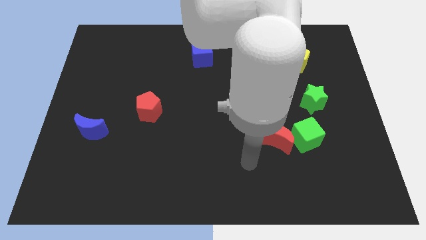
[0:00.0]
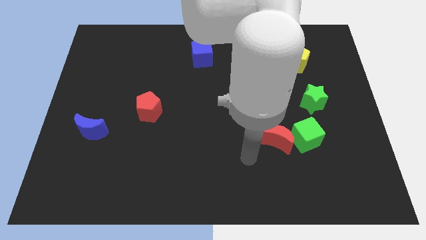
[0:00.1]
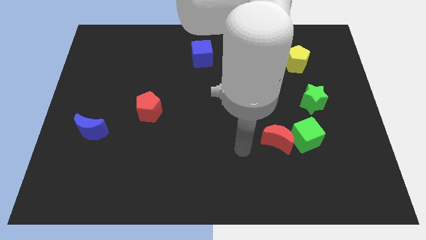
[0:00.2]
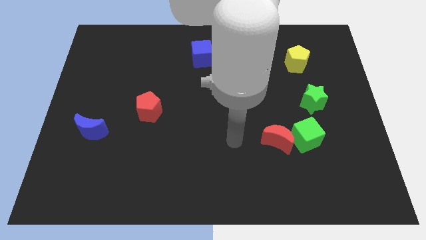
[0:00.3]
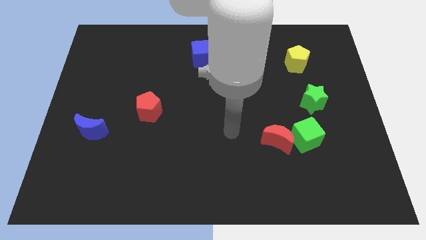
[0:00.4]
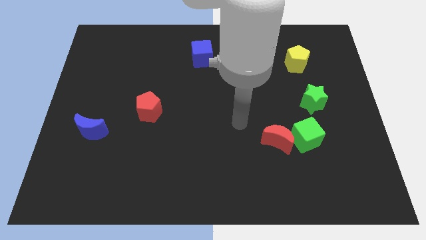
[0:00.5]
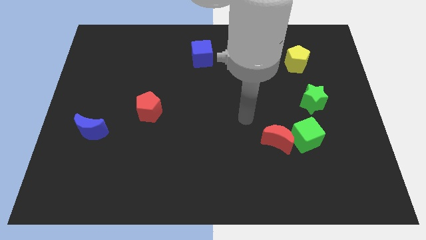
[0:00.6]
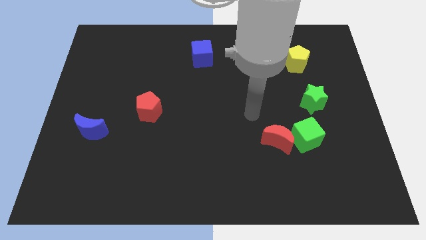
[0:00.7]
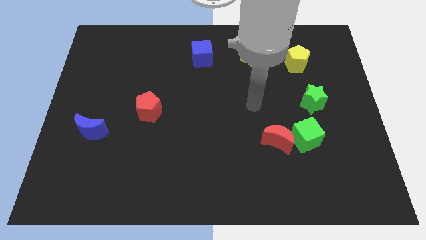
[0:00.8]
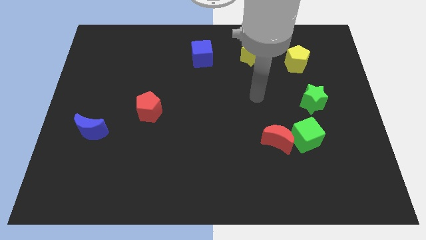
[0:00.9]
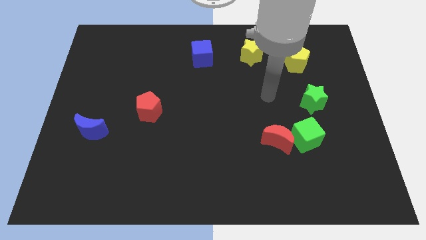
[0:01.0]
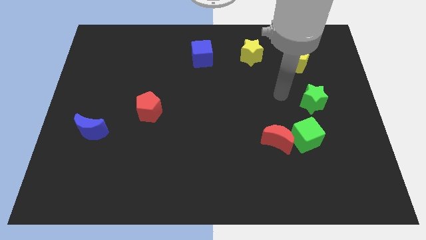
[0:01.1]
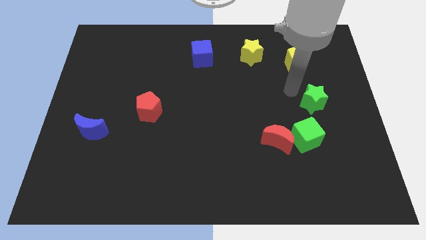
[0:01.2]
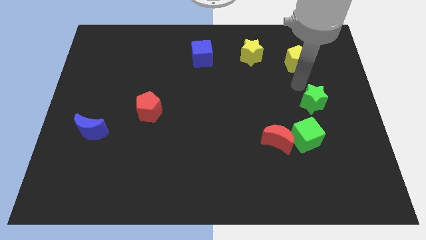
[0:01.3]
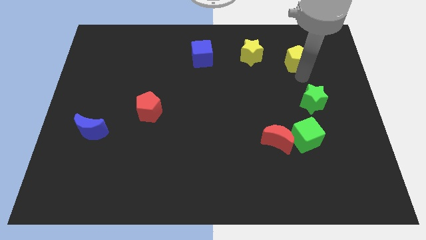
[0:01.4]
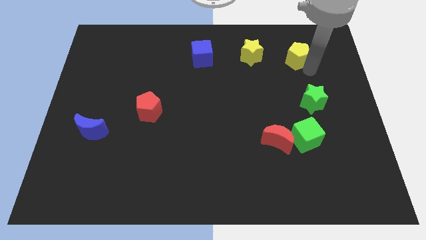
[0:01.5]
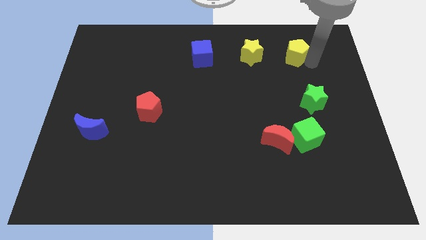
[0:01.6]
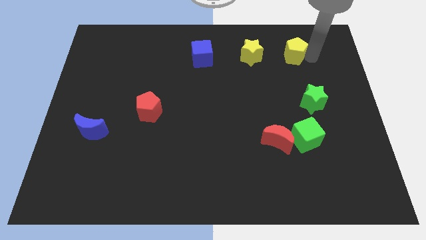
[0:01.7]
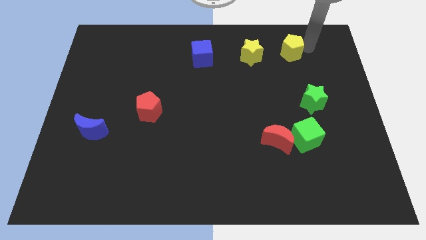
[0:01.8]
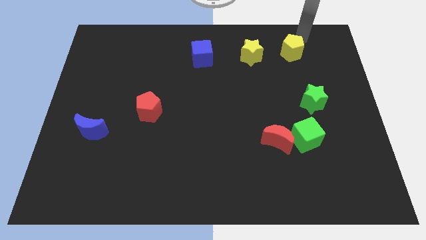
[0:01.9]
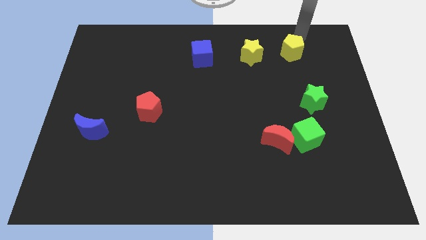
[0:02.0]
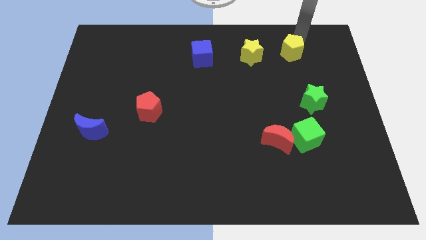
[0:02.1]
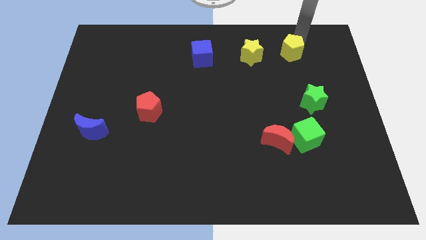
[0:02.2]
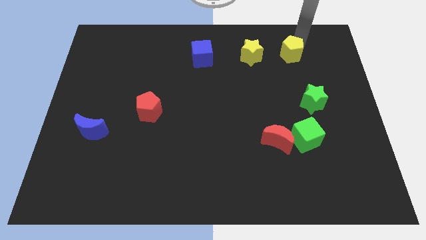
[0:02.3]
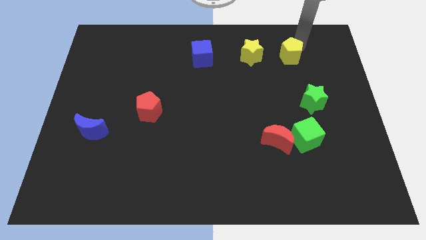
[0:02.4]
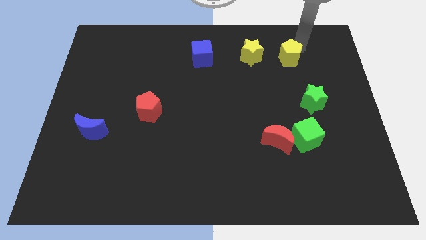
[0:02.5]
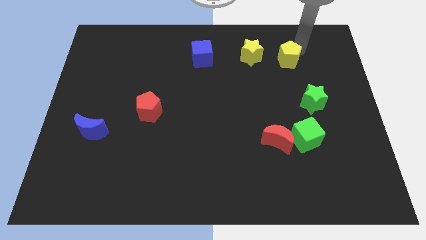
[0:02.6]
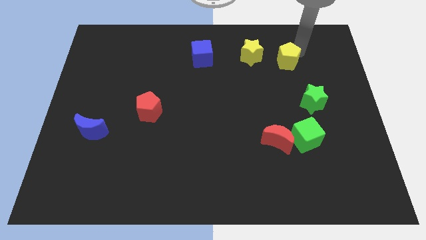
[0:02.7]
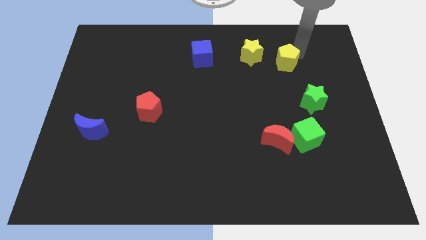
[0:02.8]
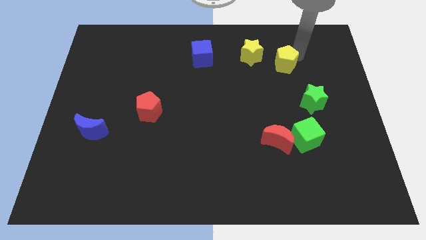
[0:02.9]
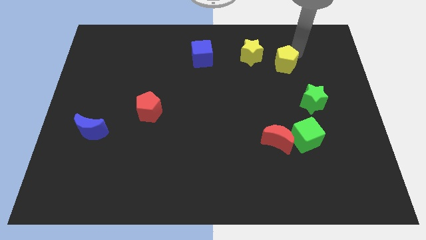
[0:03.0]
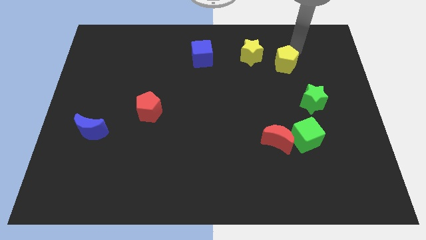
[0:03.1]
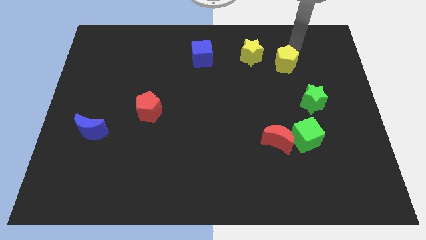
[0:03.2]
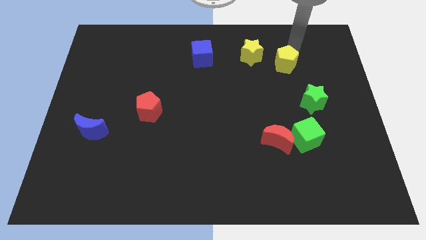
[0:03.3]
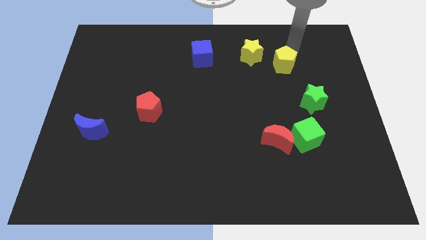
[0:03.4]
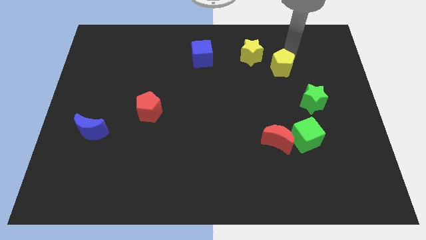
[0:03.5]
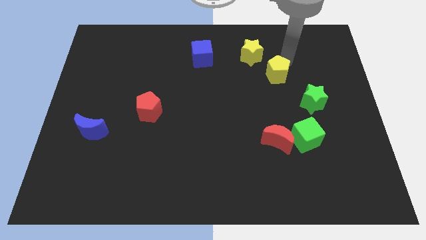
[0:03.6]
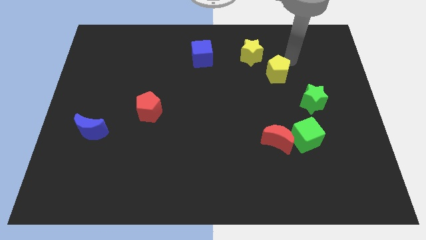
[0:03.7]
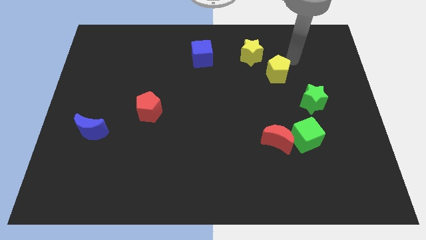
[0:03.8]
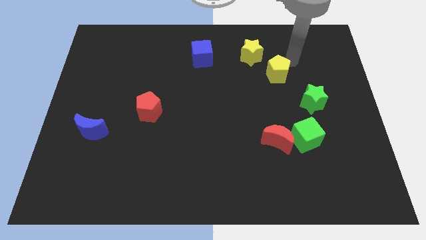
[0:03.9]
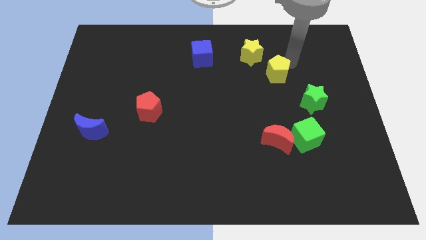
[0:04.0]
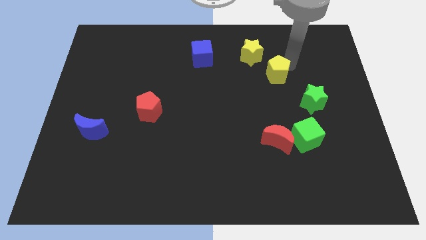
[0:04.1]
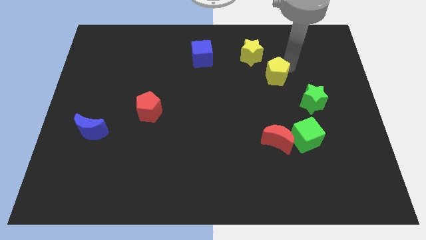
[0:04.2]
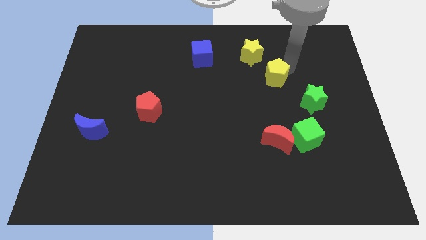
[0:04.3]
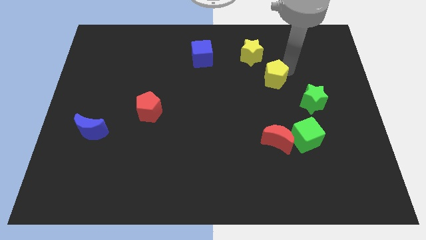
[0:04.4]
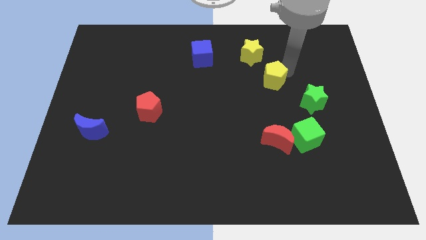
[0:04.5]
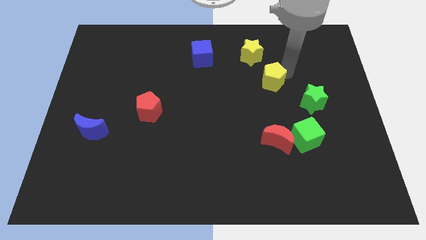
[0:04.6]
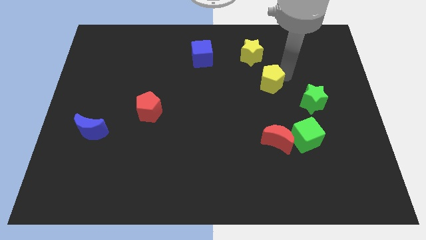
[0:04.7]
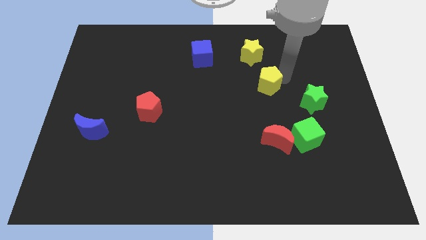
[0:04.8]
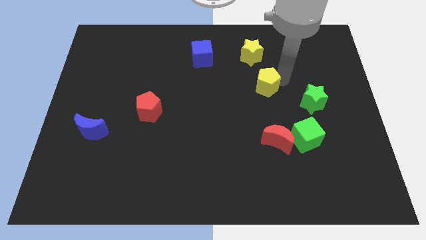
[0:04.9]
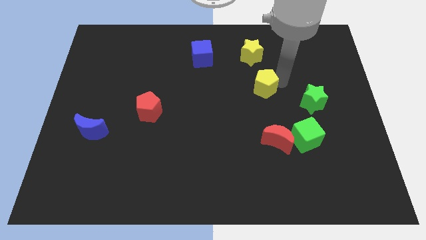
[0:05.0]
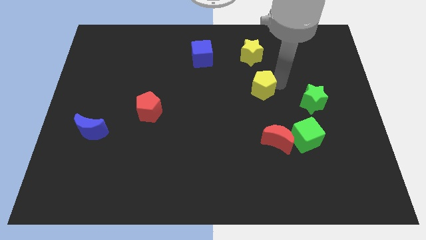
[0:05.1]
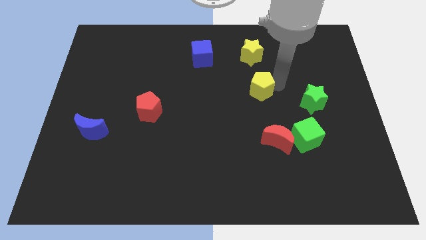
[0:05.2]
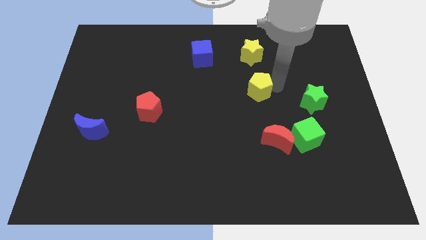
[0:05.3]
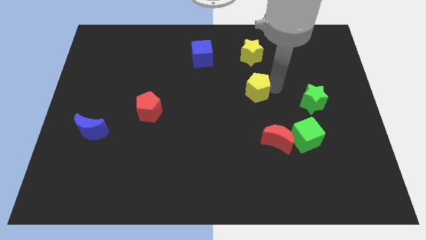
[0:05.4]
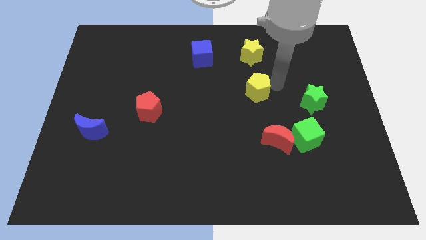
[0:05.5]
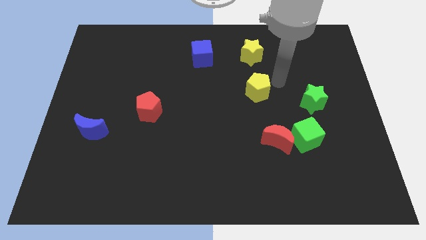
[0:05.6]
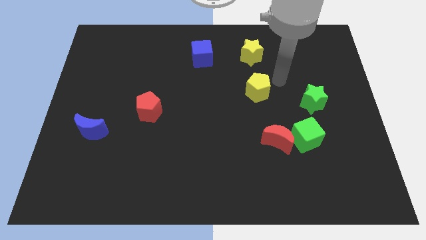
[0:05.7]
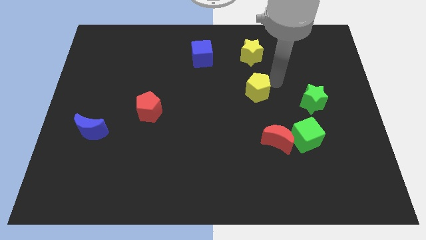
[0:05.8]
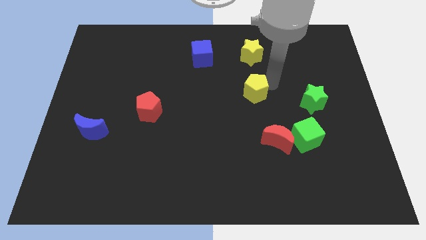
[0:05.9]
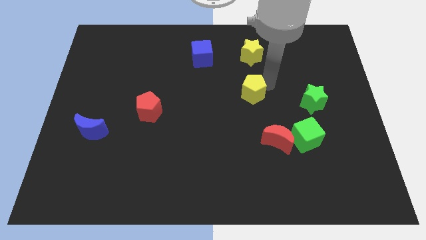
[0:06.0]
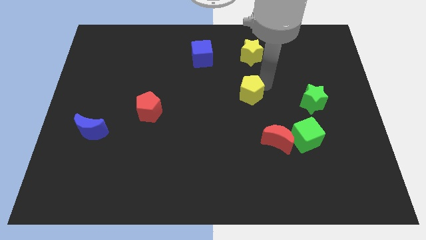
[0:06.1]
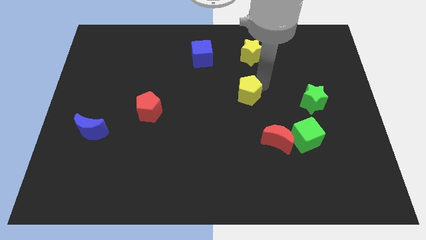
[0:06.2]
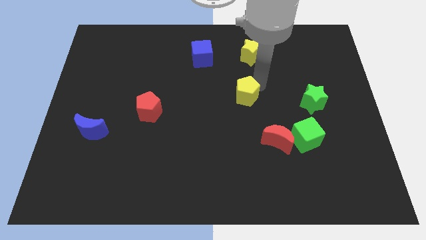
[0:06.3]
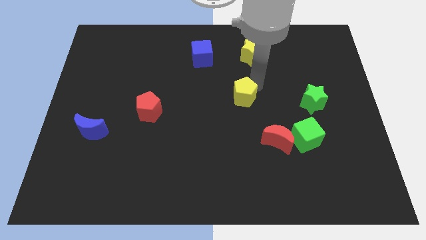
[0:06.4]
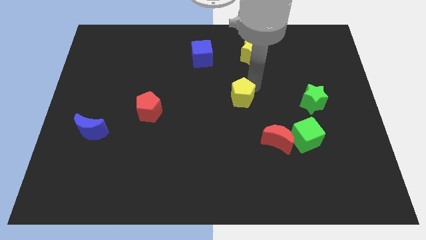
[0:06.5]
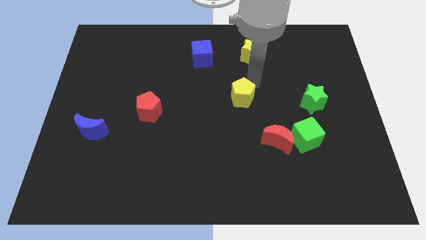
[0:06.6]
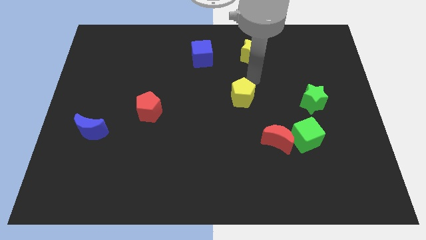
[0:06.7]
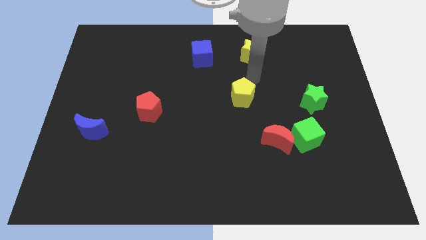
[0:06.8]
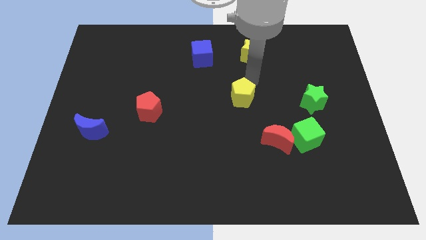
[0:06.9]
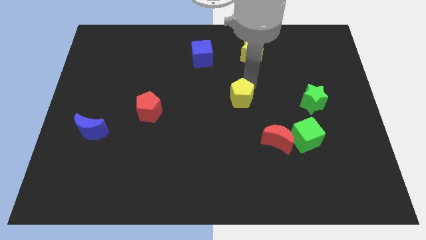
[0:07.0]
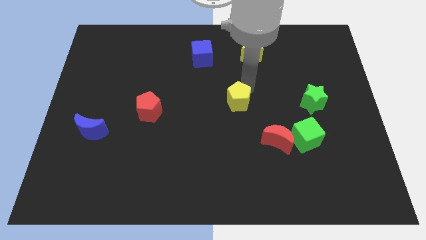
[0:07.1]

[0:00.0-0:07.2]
push the yellow pentagon diagonally downwards and to the left

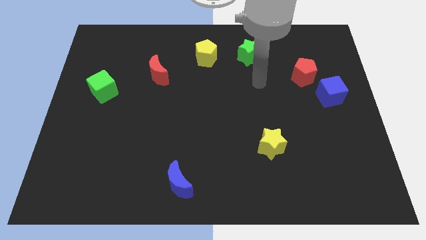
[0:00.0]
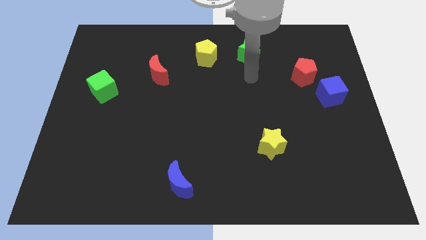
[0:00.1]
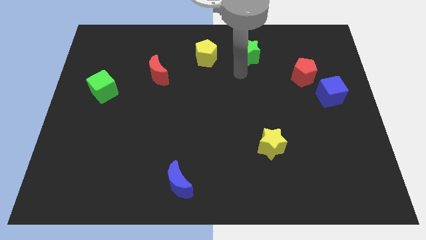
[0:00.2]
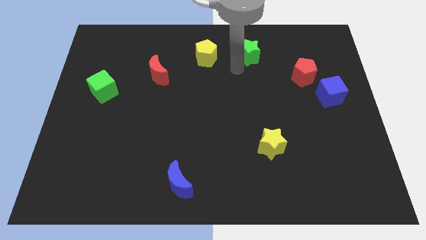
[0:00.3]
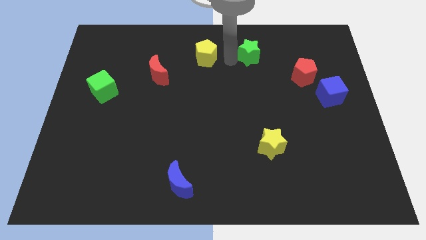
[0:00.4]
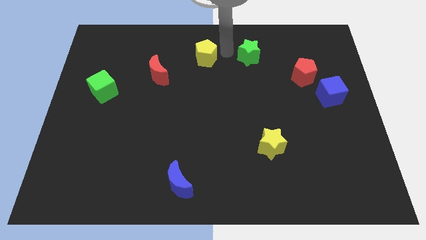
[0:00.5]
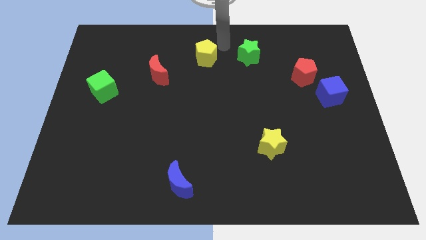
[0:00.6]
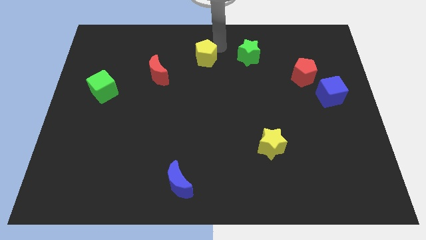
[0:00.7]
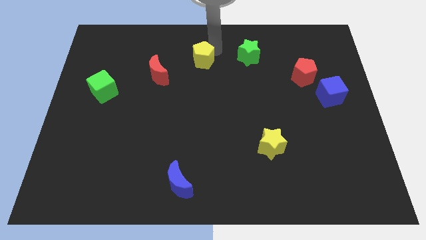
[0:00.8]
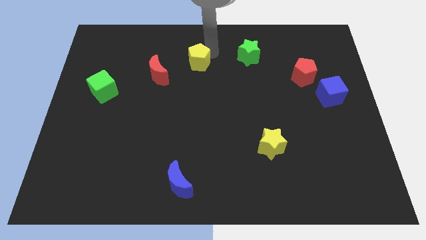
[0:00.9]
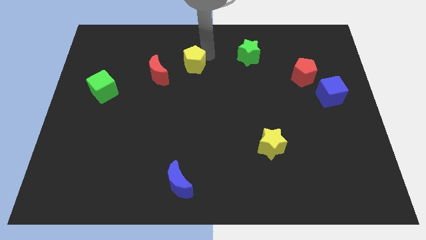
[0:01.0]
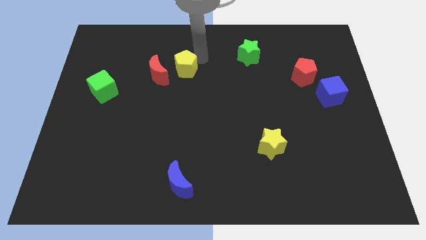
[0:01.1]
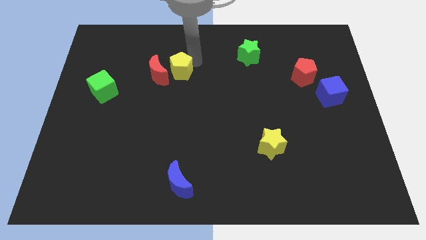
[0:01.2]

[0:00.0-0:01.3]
move the yellow pentagon downwards and to the left a bit
